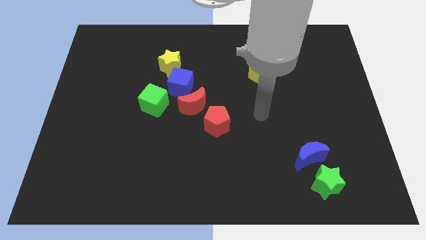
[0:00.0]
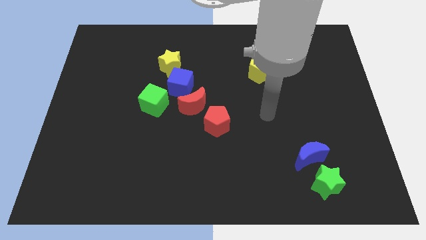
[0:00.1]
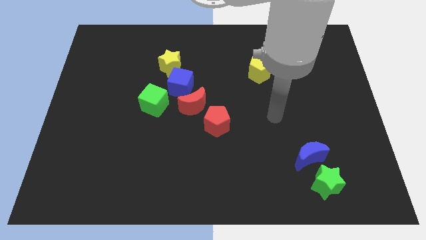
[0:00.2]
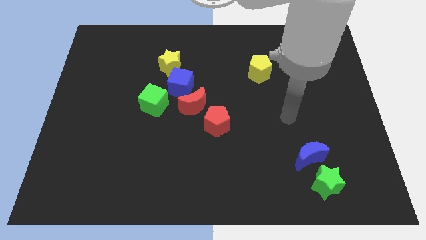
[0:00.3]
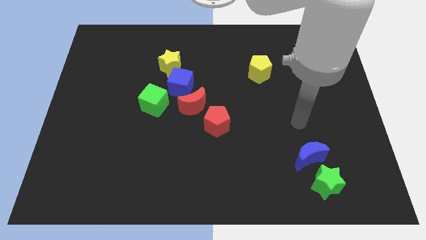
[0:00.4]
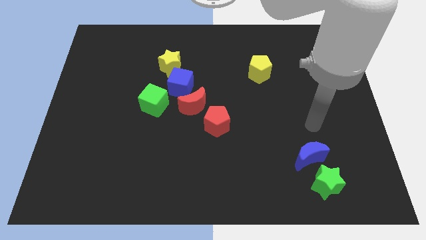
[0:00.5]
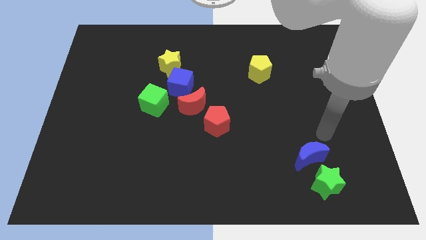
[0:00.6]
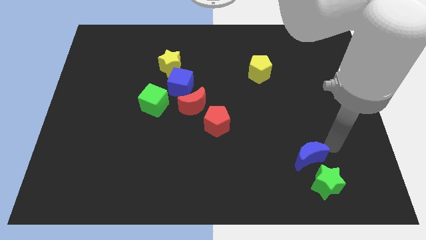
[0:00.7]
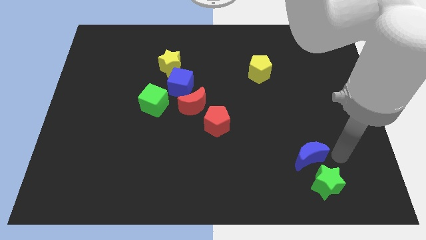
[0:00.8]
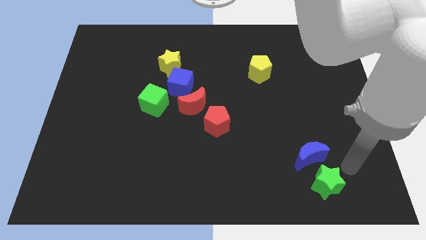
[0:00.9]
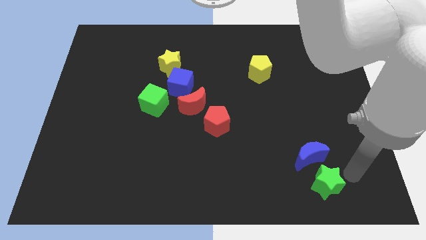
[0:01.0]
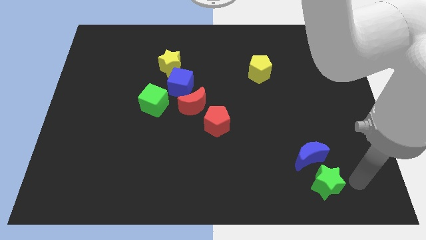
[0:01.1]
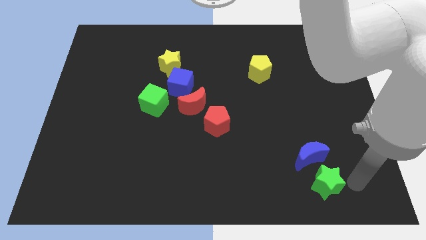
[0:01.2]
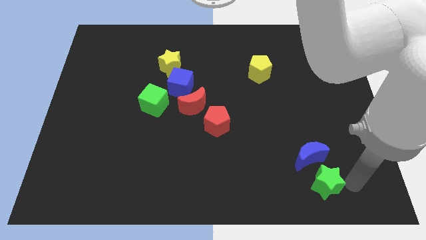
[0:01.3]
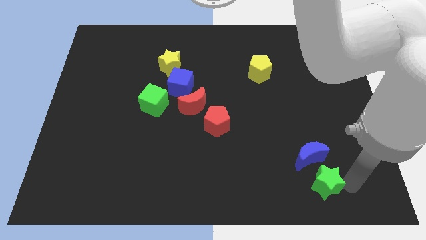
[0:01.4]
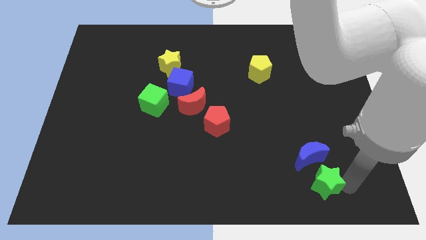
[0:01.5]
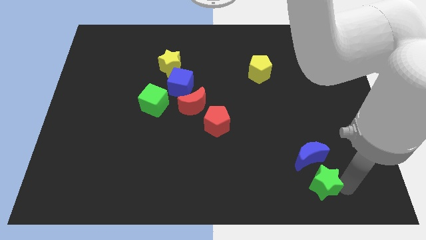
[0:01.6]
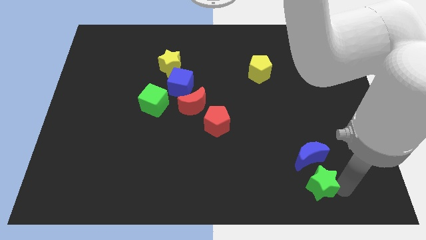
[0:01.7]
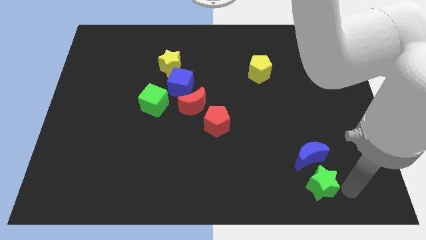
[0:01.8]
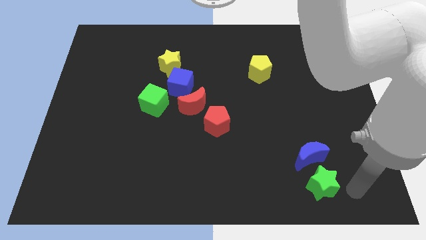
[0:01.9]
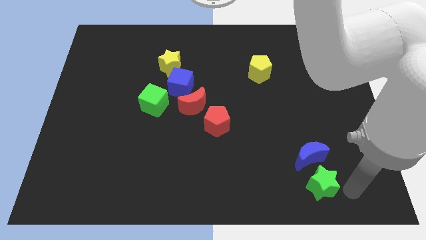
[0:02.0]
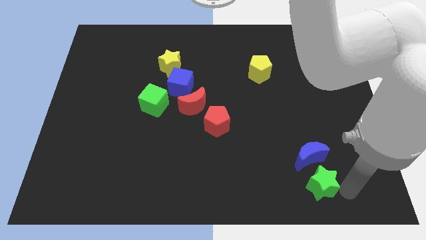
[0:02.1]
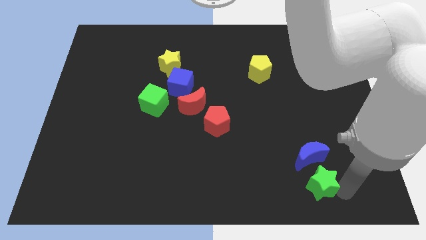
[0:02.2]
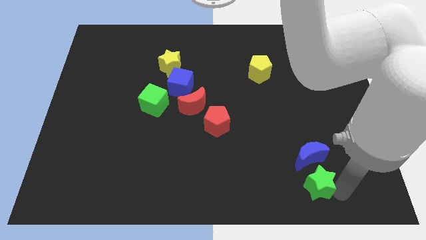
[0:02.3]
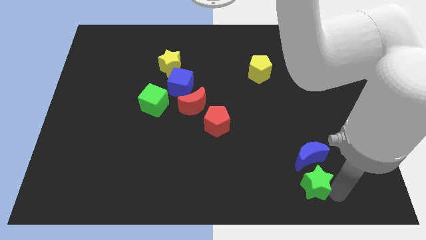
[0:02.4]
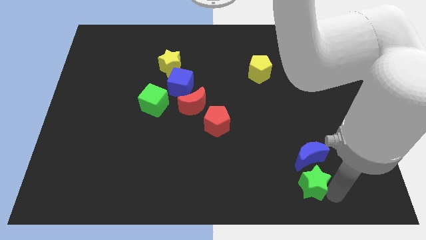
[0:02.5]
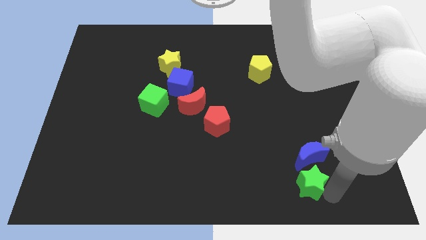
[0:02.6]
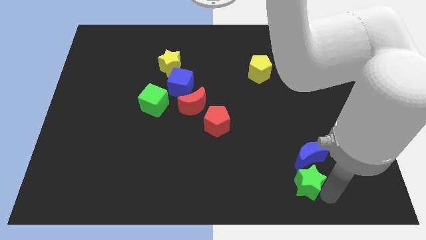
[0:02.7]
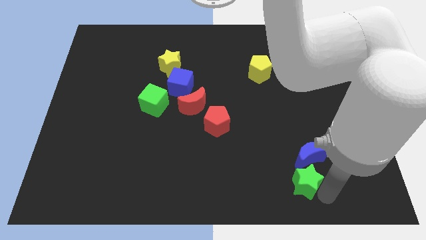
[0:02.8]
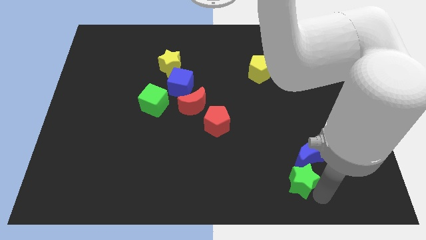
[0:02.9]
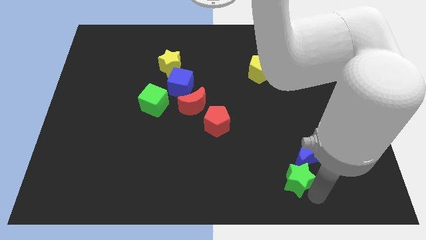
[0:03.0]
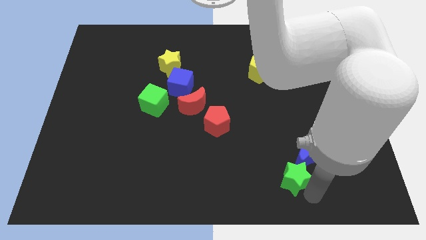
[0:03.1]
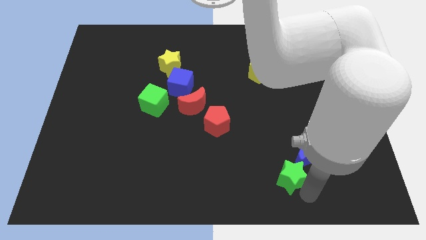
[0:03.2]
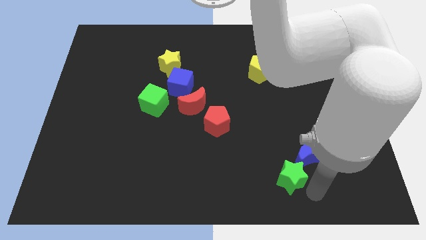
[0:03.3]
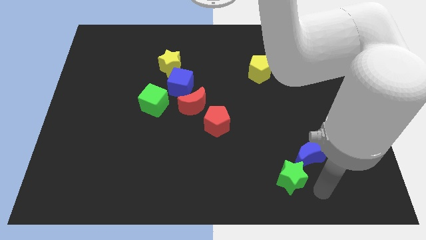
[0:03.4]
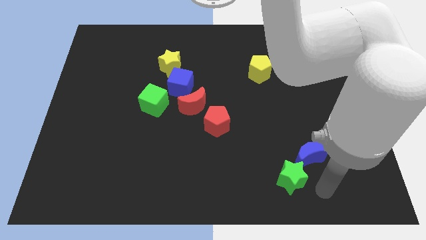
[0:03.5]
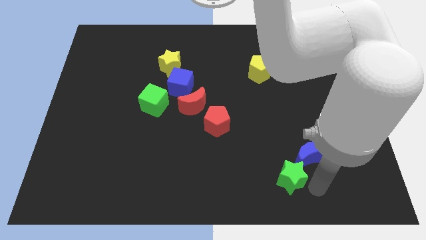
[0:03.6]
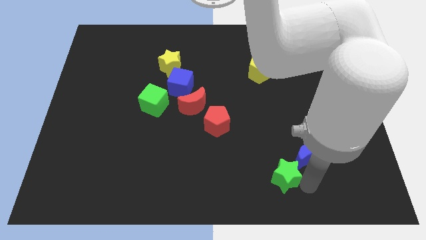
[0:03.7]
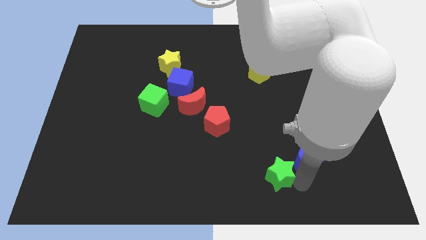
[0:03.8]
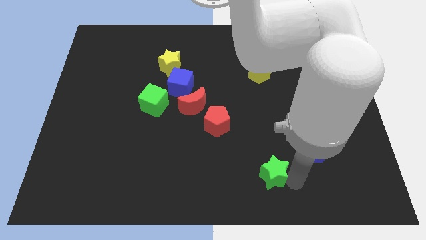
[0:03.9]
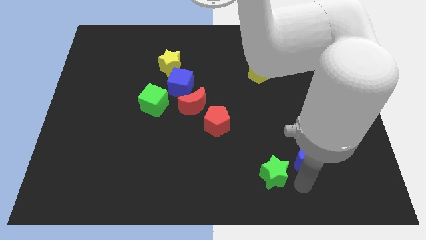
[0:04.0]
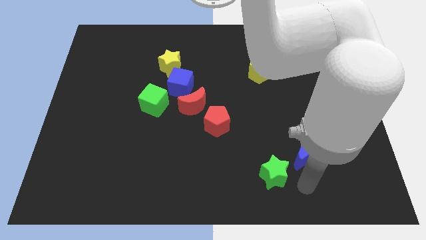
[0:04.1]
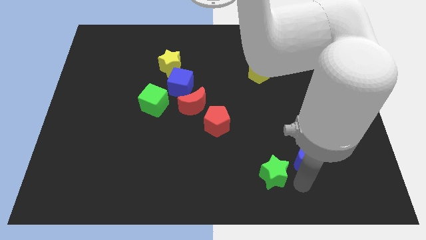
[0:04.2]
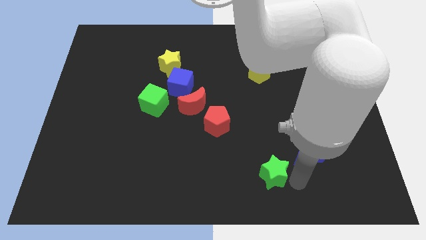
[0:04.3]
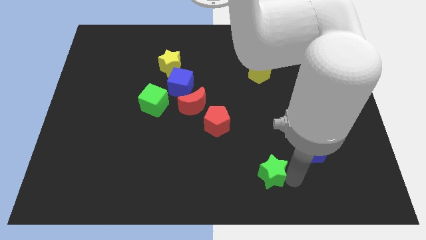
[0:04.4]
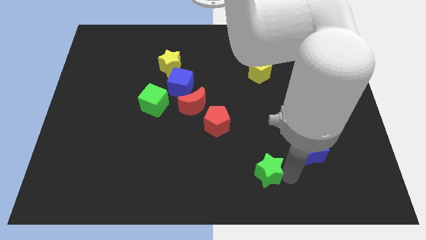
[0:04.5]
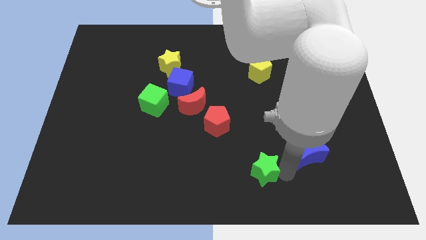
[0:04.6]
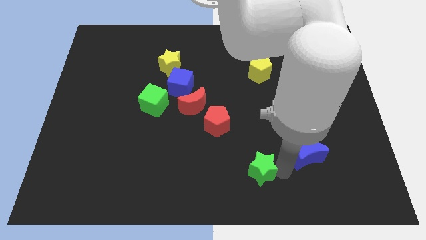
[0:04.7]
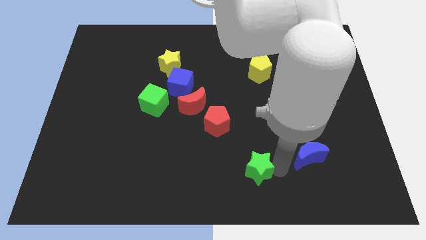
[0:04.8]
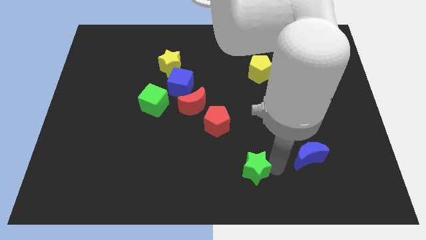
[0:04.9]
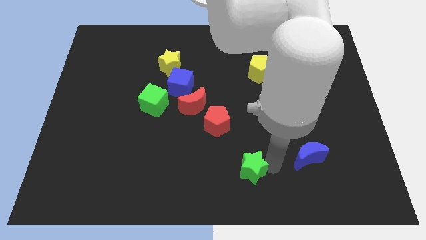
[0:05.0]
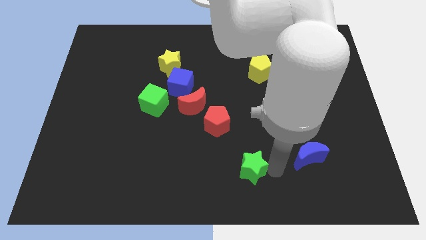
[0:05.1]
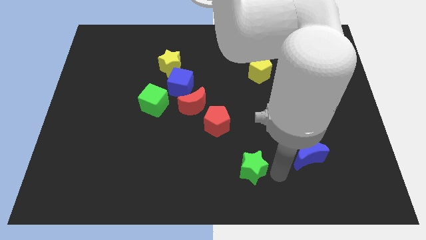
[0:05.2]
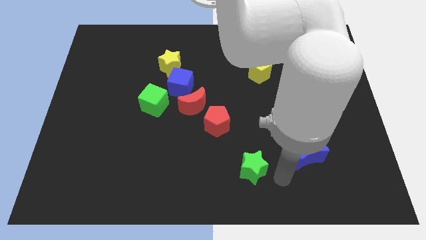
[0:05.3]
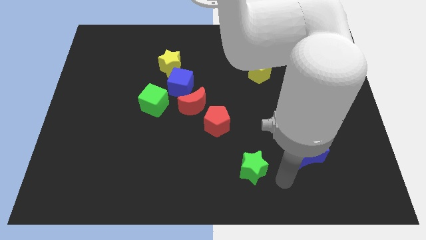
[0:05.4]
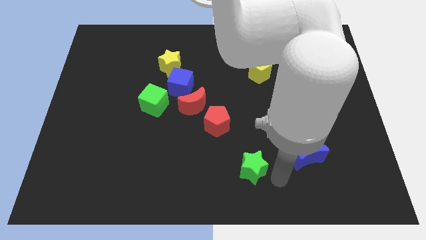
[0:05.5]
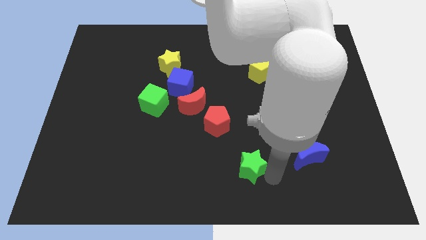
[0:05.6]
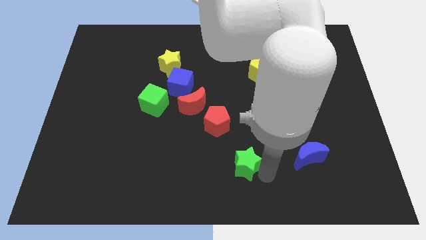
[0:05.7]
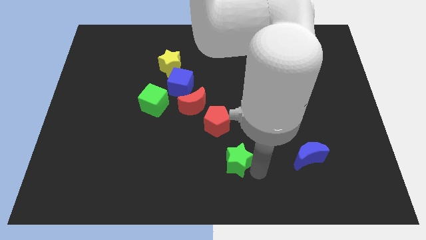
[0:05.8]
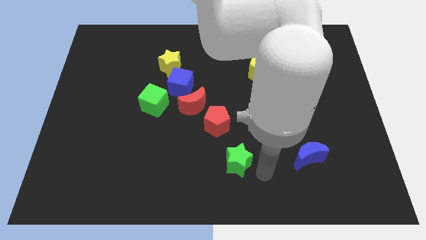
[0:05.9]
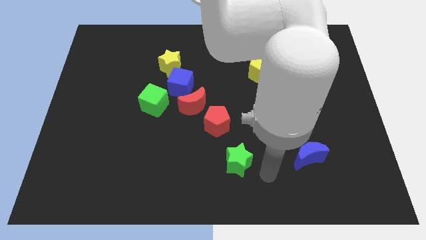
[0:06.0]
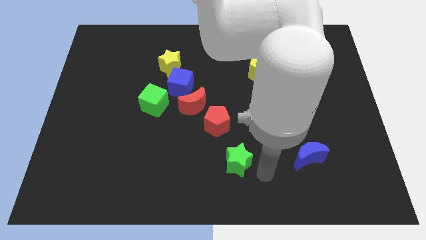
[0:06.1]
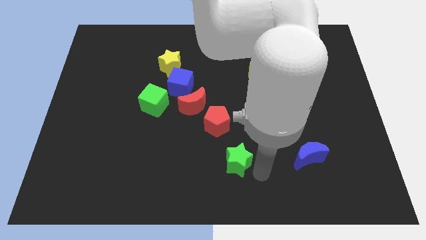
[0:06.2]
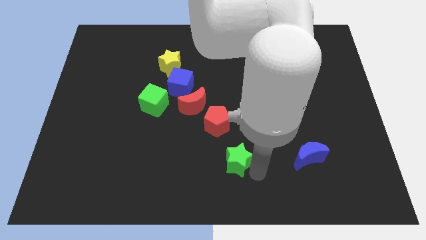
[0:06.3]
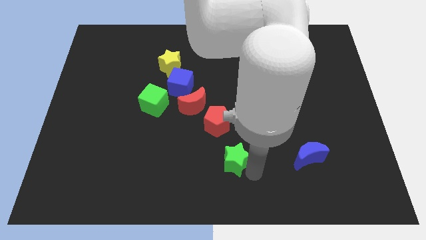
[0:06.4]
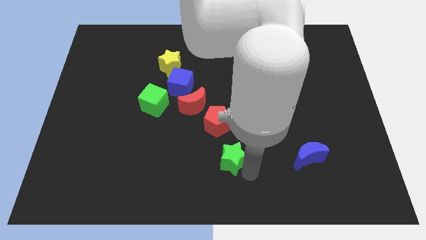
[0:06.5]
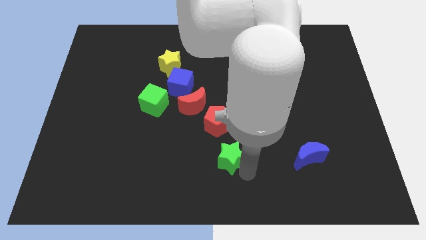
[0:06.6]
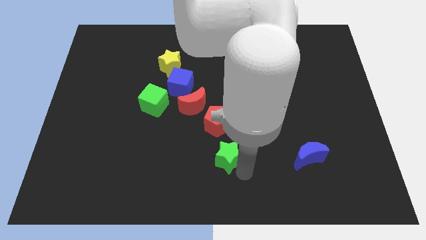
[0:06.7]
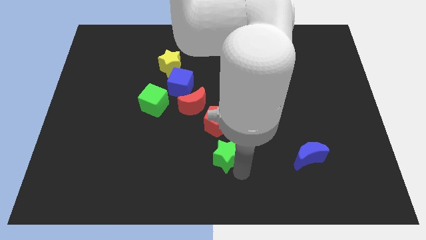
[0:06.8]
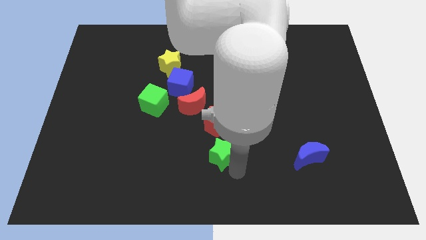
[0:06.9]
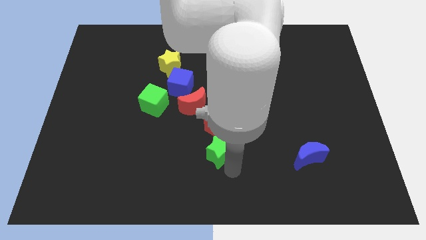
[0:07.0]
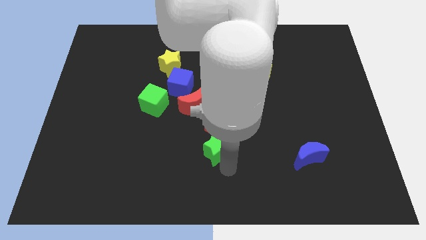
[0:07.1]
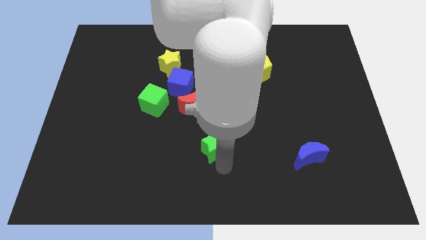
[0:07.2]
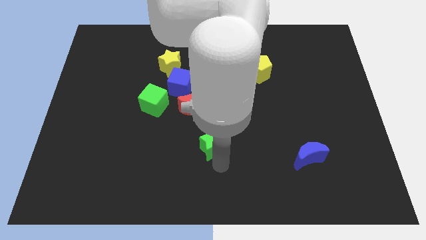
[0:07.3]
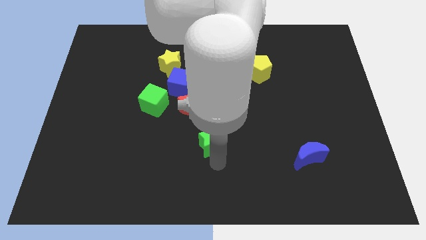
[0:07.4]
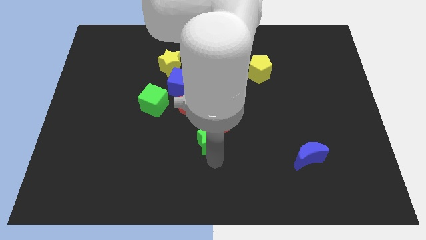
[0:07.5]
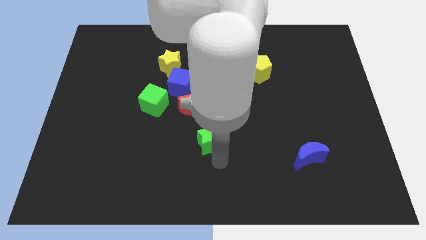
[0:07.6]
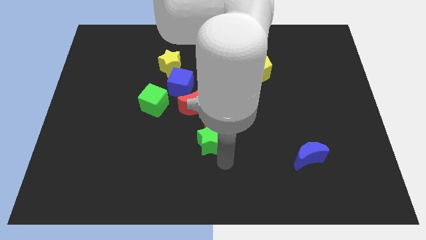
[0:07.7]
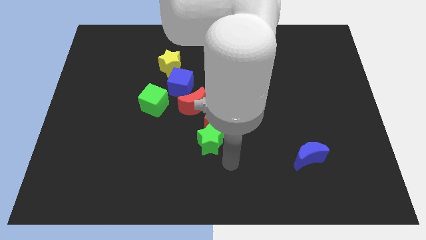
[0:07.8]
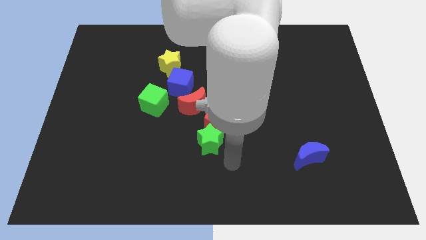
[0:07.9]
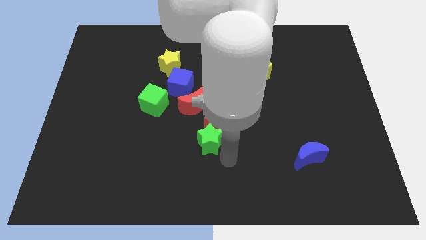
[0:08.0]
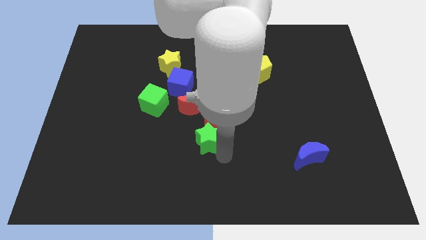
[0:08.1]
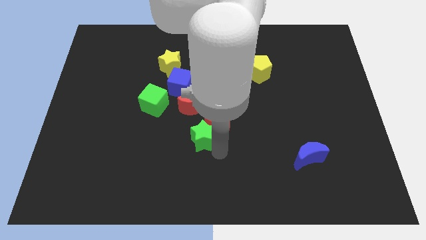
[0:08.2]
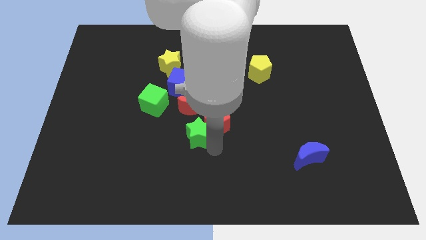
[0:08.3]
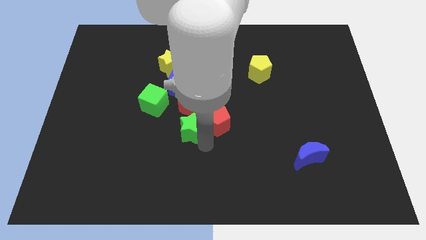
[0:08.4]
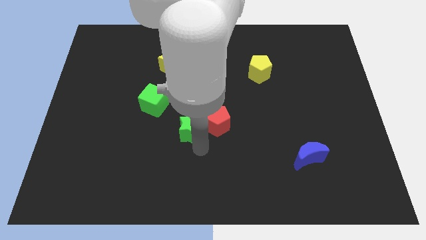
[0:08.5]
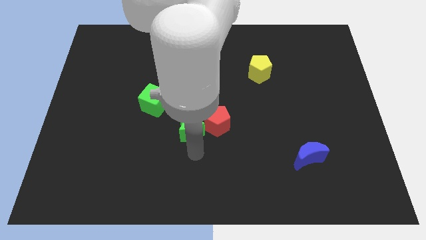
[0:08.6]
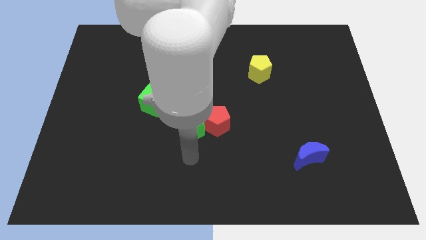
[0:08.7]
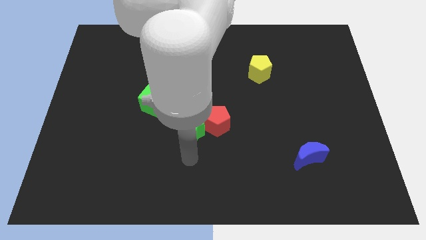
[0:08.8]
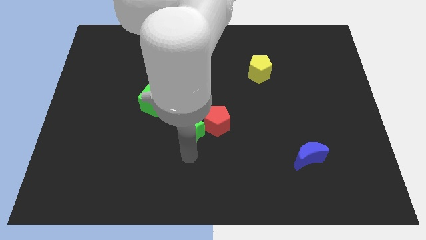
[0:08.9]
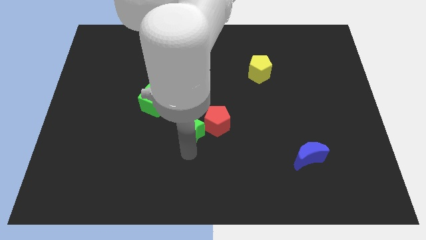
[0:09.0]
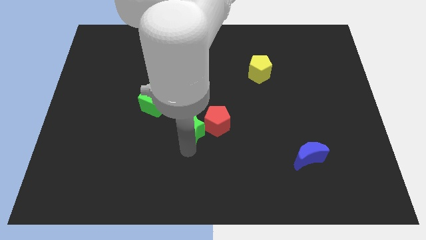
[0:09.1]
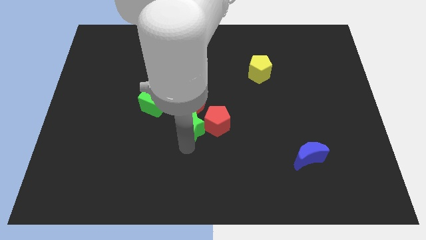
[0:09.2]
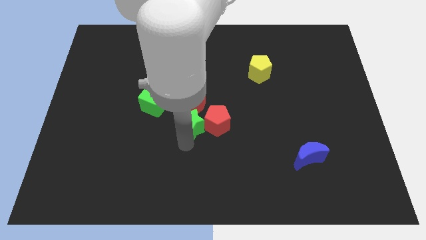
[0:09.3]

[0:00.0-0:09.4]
push the green star towards the red moon
